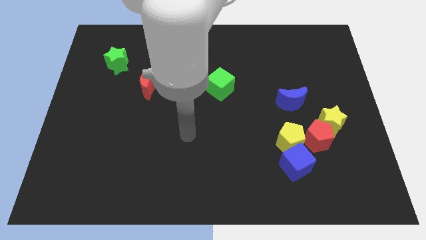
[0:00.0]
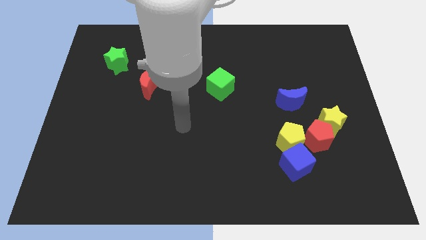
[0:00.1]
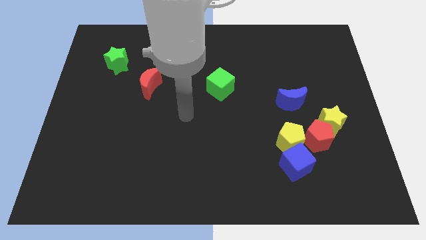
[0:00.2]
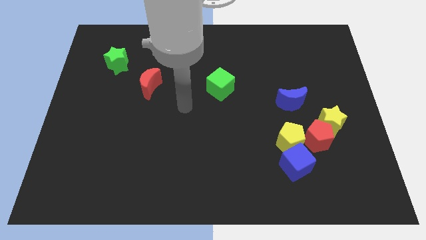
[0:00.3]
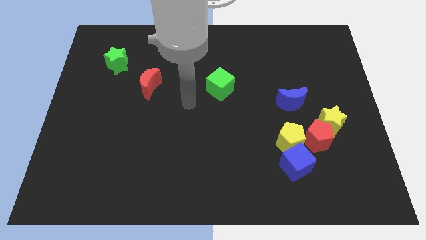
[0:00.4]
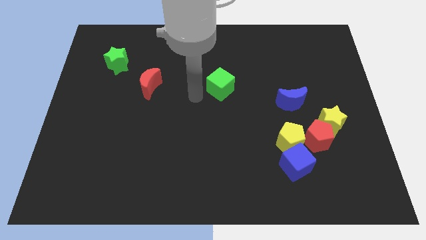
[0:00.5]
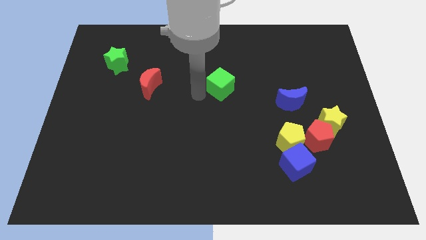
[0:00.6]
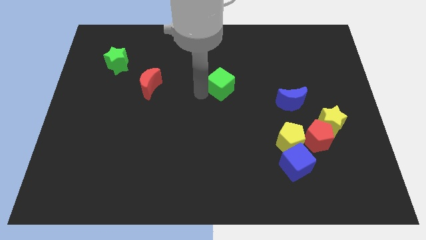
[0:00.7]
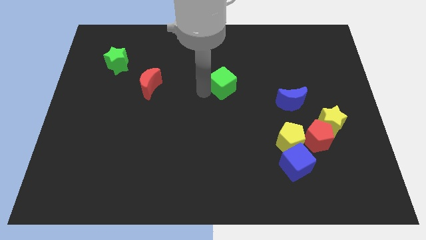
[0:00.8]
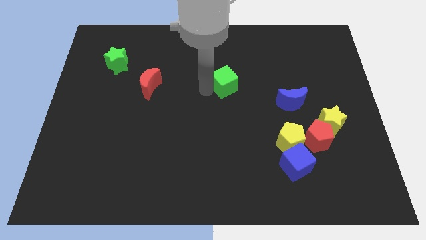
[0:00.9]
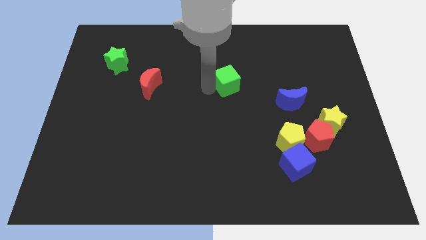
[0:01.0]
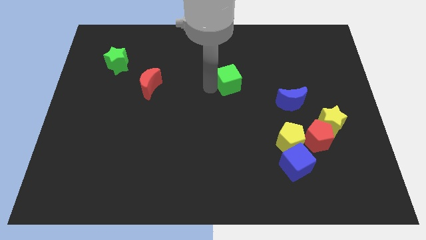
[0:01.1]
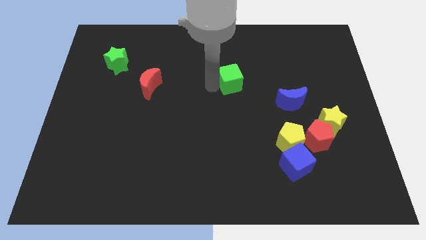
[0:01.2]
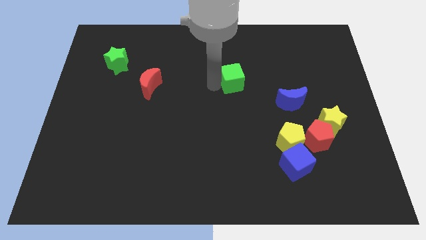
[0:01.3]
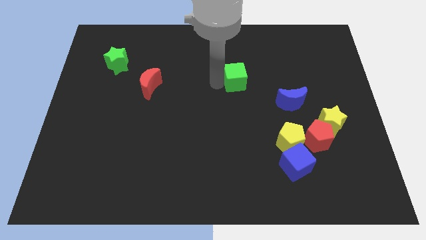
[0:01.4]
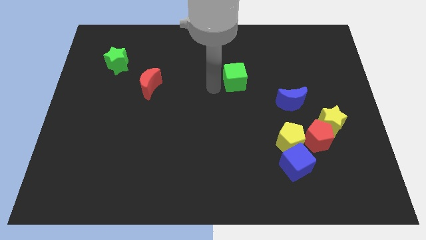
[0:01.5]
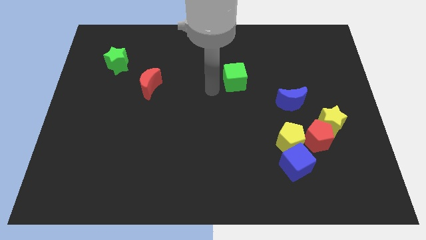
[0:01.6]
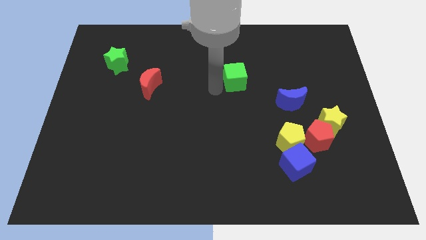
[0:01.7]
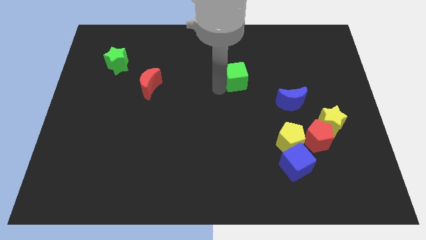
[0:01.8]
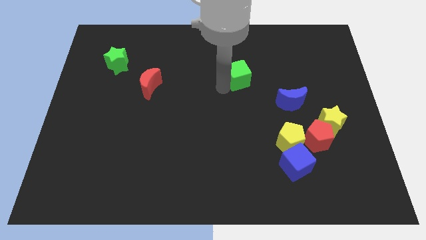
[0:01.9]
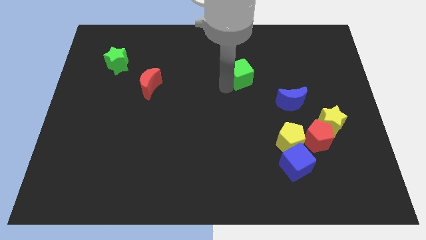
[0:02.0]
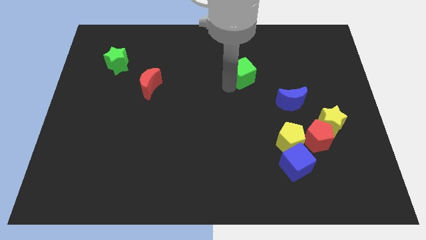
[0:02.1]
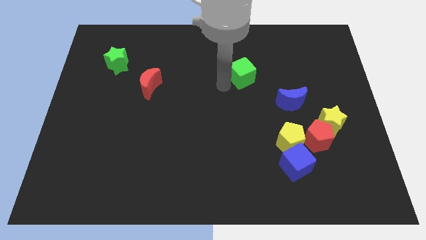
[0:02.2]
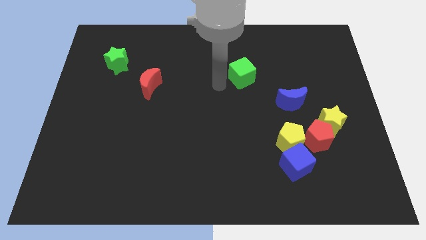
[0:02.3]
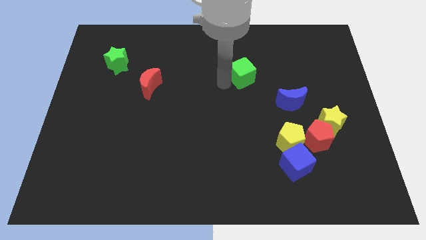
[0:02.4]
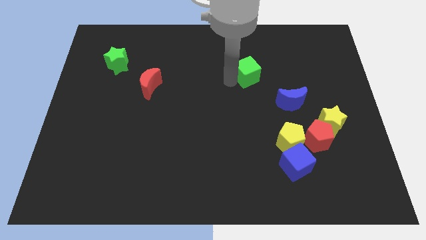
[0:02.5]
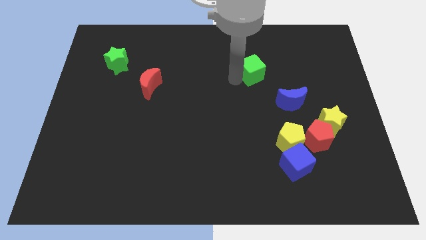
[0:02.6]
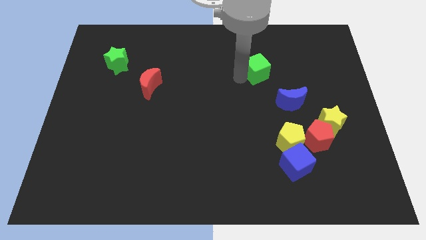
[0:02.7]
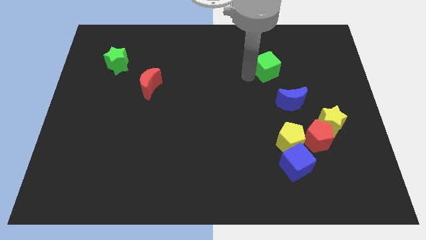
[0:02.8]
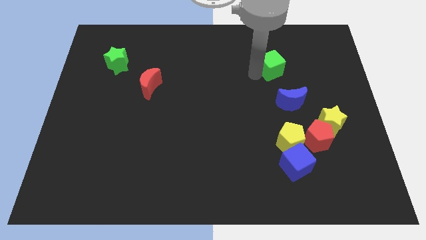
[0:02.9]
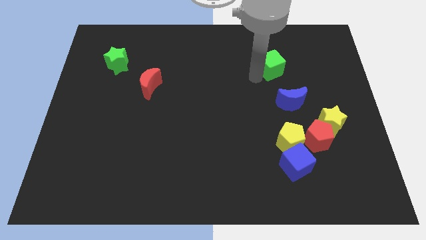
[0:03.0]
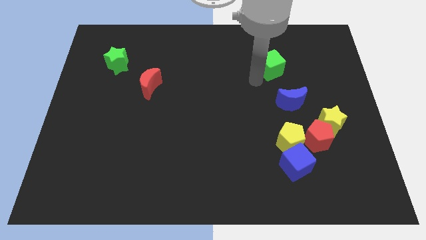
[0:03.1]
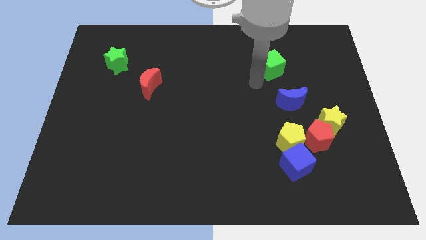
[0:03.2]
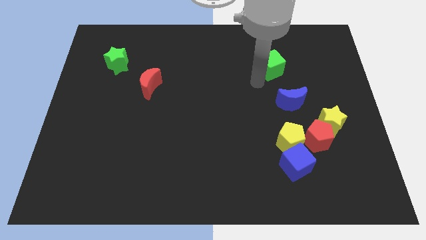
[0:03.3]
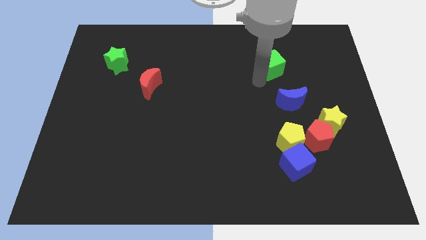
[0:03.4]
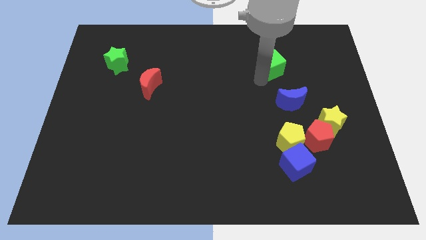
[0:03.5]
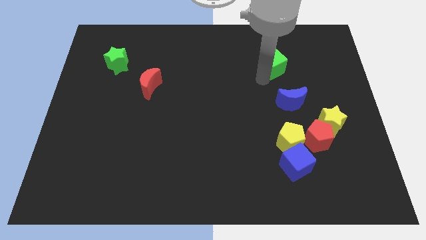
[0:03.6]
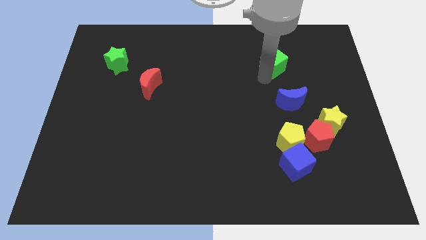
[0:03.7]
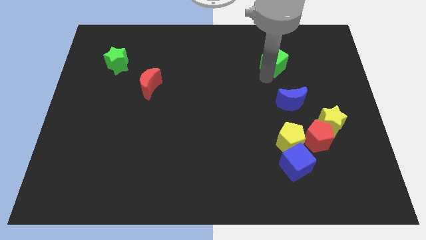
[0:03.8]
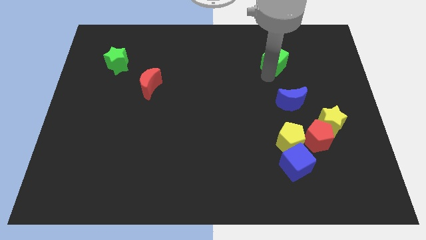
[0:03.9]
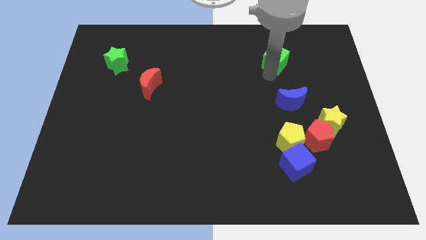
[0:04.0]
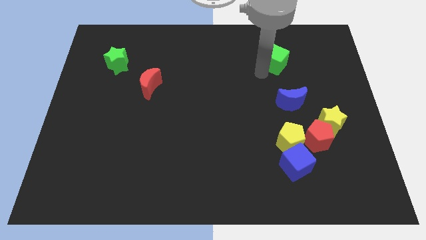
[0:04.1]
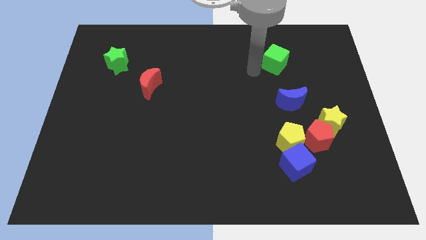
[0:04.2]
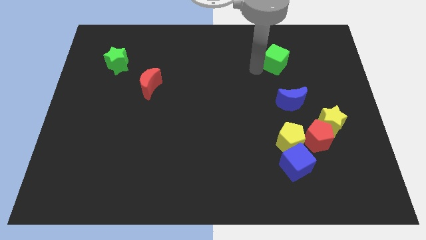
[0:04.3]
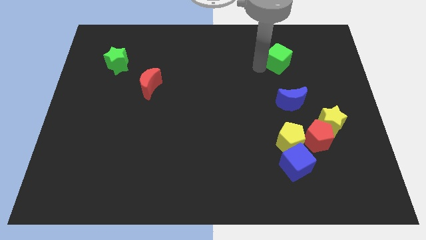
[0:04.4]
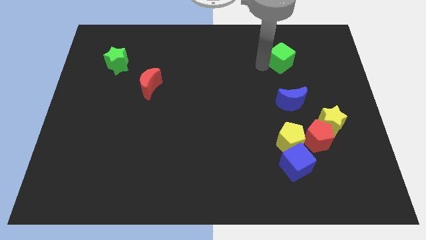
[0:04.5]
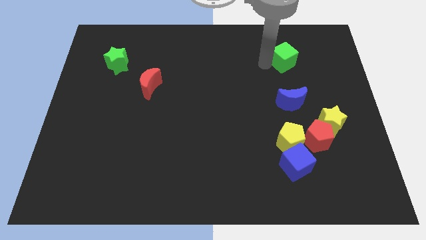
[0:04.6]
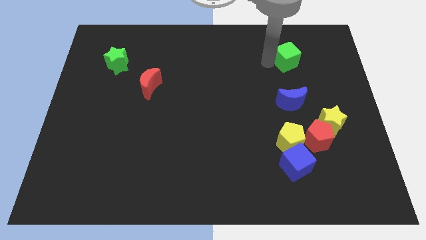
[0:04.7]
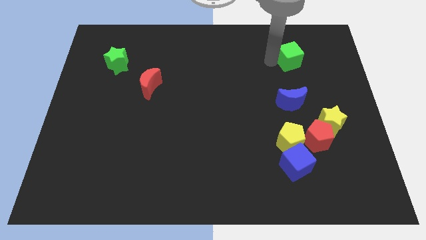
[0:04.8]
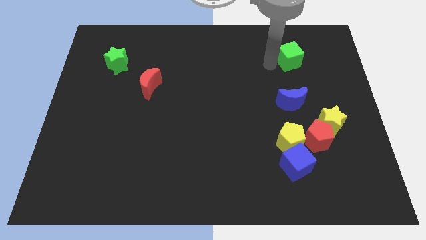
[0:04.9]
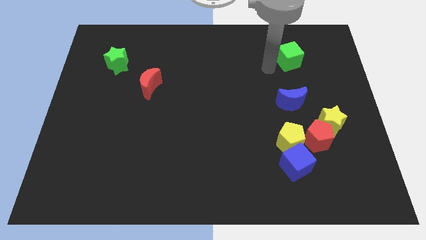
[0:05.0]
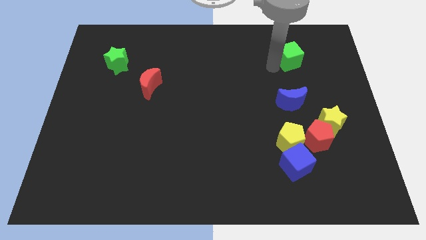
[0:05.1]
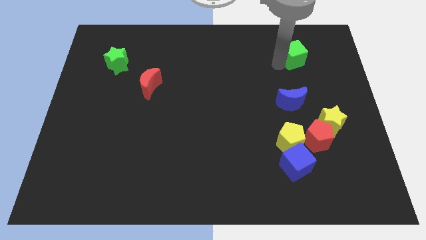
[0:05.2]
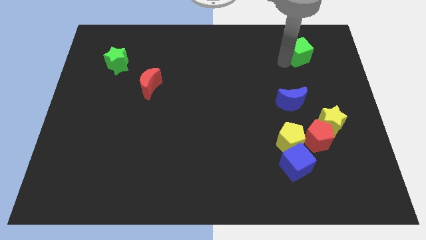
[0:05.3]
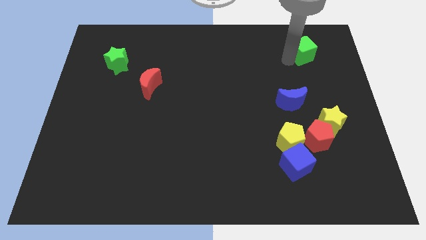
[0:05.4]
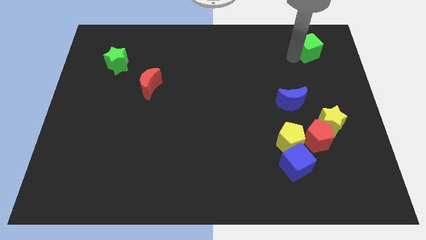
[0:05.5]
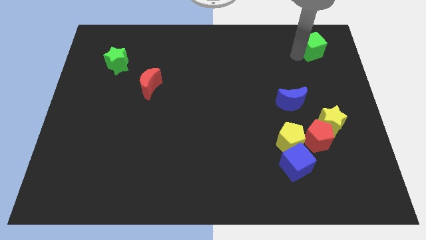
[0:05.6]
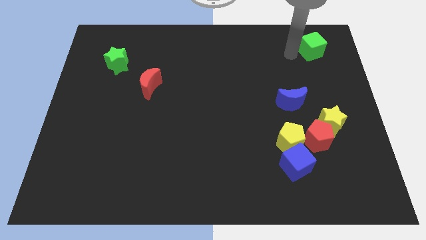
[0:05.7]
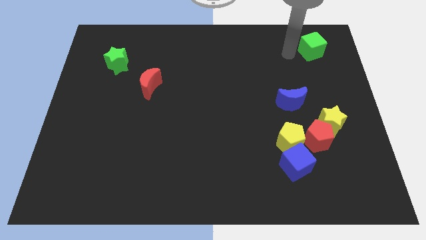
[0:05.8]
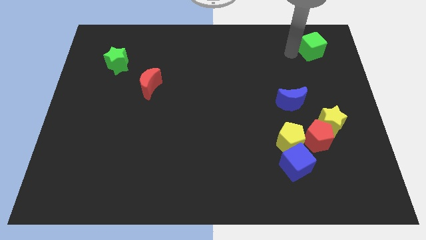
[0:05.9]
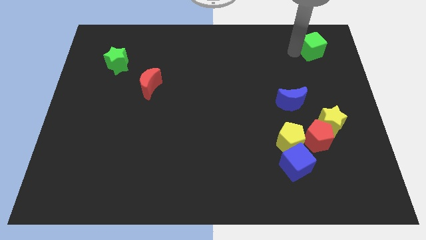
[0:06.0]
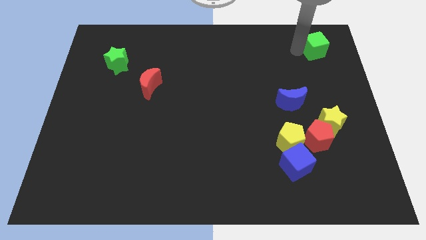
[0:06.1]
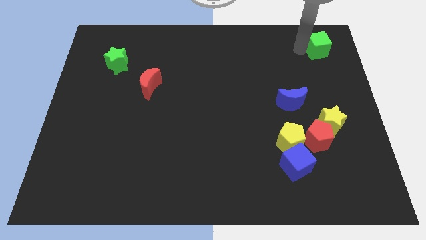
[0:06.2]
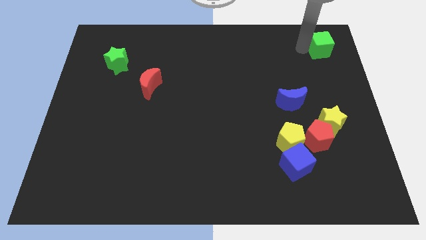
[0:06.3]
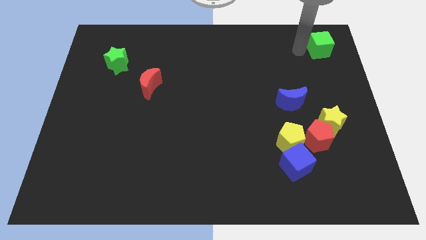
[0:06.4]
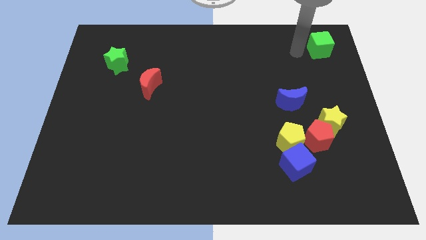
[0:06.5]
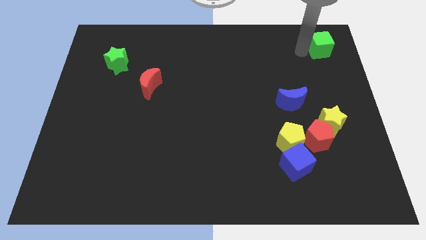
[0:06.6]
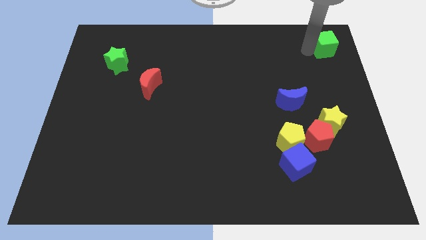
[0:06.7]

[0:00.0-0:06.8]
slide the green cube to the upper right corner
